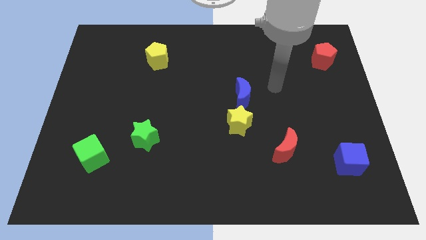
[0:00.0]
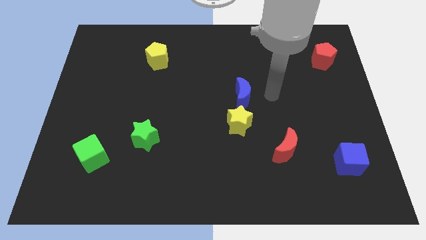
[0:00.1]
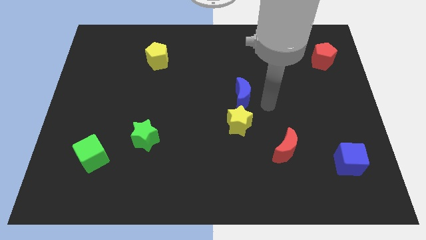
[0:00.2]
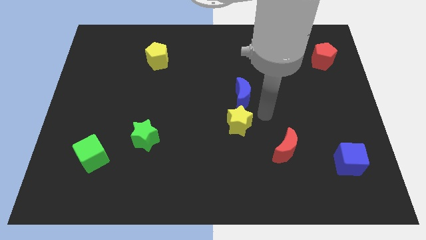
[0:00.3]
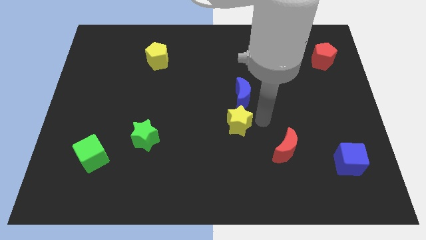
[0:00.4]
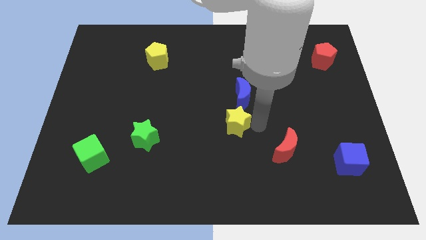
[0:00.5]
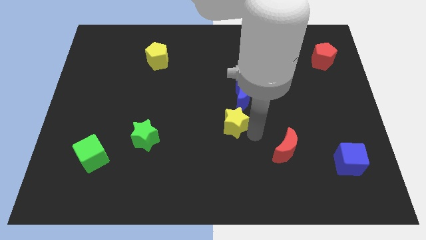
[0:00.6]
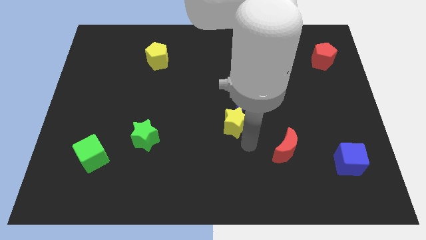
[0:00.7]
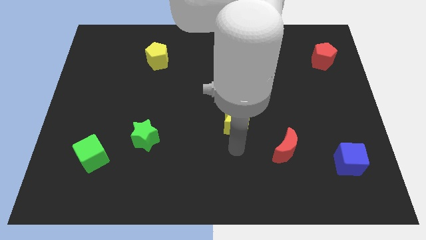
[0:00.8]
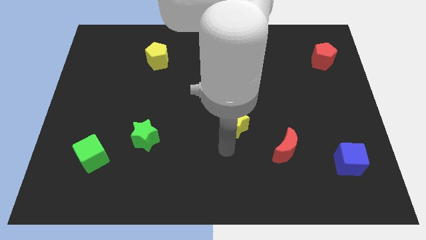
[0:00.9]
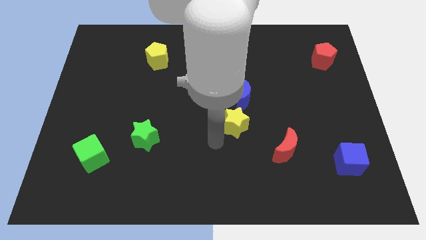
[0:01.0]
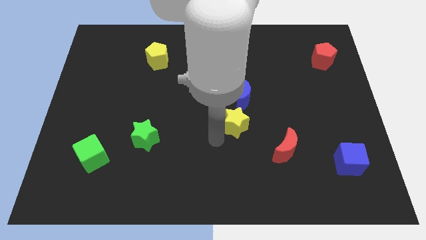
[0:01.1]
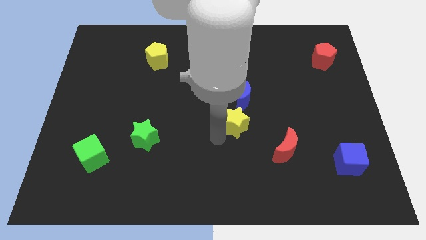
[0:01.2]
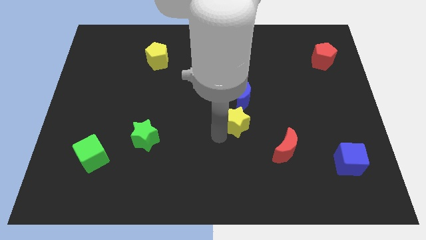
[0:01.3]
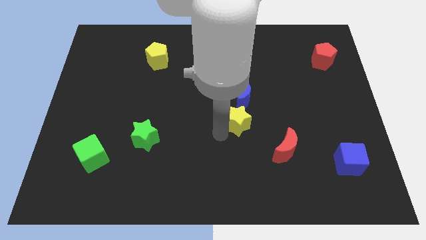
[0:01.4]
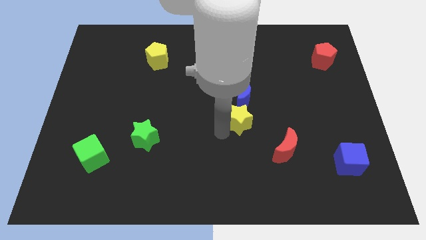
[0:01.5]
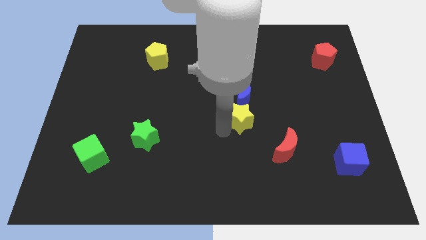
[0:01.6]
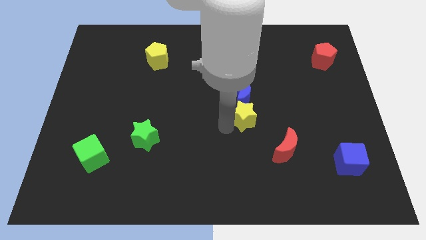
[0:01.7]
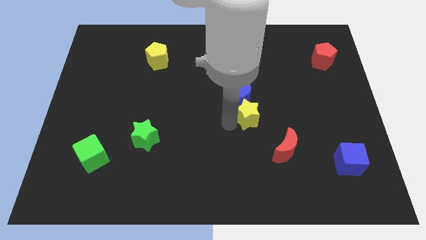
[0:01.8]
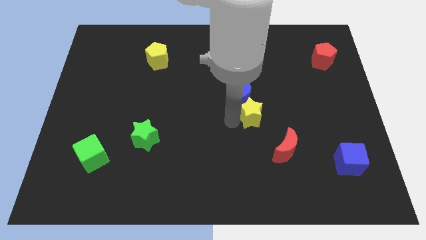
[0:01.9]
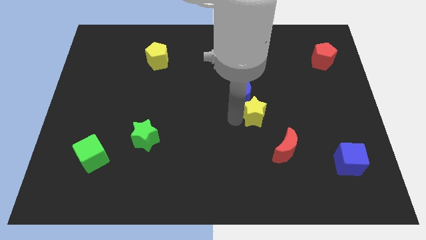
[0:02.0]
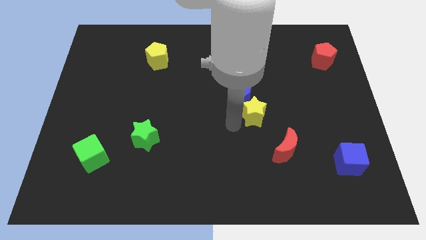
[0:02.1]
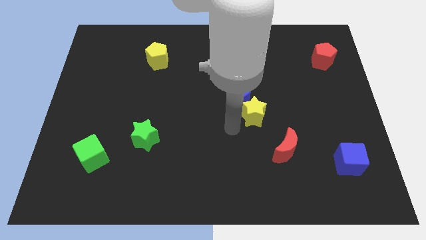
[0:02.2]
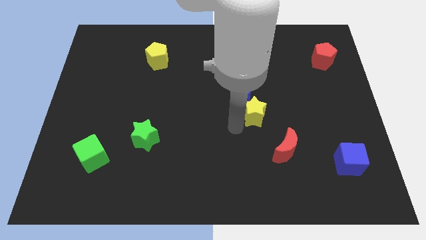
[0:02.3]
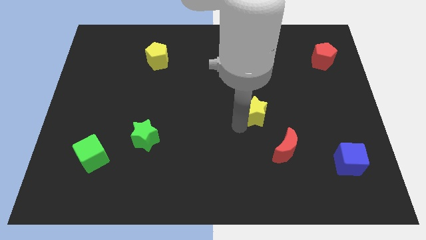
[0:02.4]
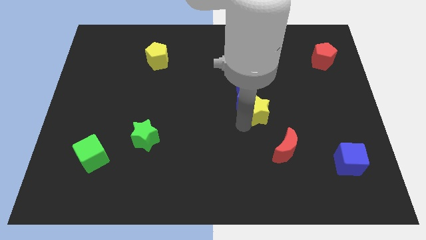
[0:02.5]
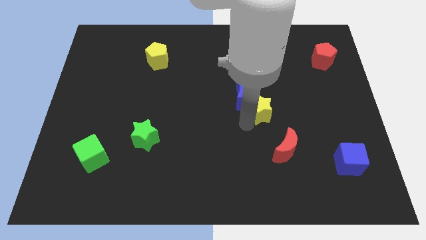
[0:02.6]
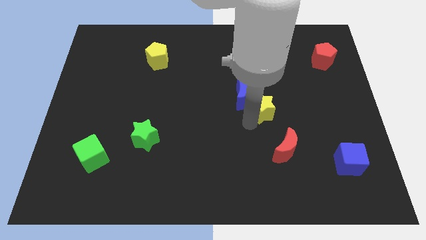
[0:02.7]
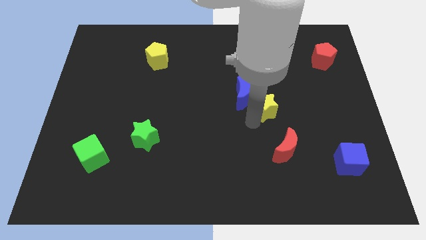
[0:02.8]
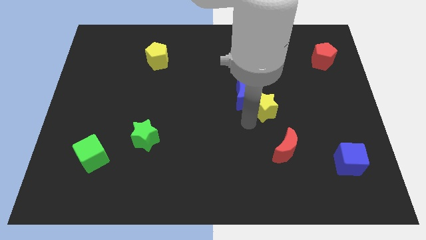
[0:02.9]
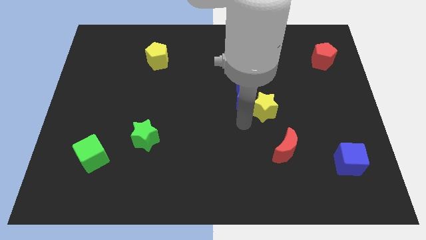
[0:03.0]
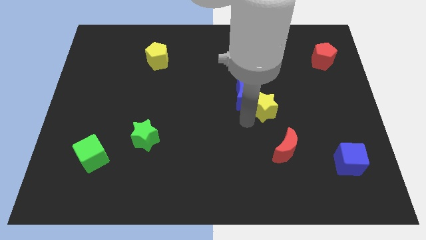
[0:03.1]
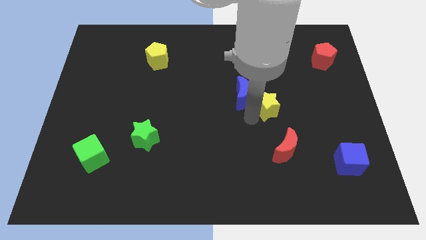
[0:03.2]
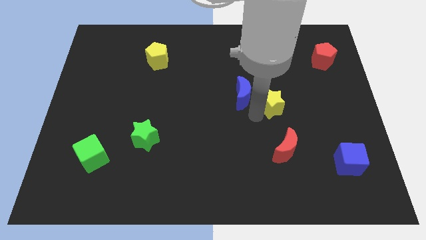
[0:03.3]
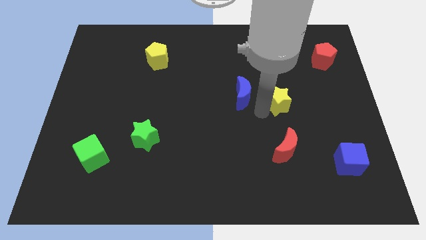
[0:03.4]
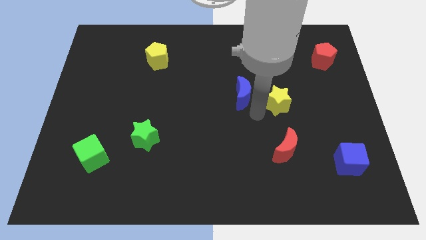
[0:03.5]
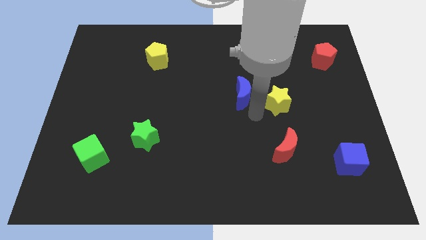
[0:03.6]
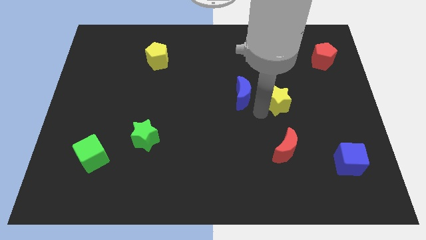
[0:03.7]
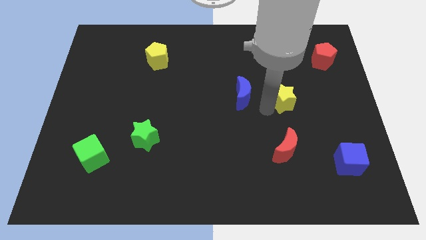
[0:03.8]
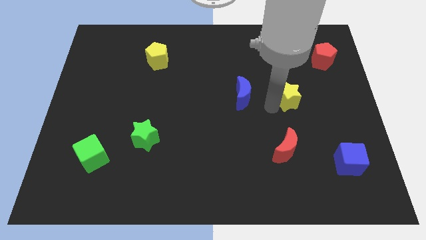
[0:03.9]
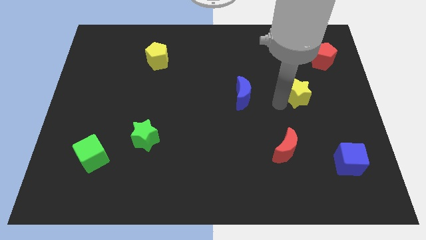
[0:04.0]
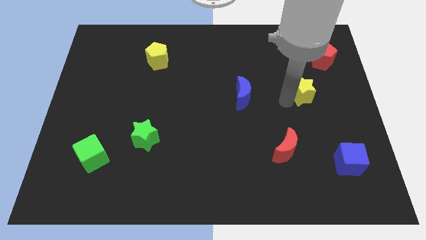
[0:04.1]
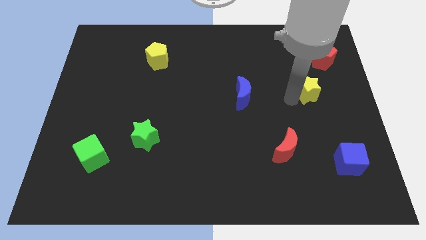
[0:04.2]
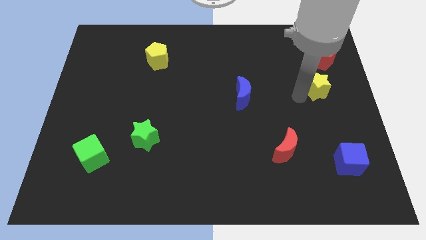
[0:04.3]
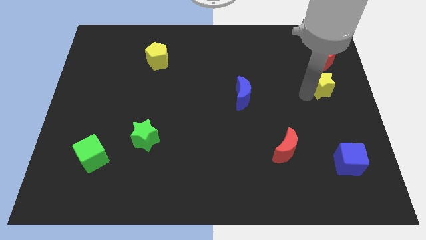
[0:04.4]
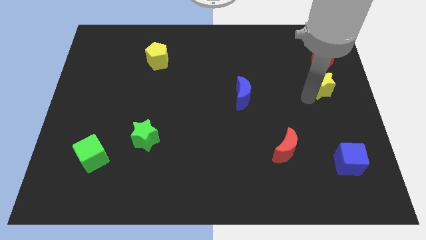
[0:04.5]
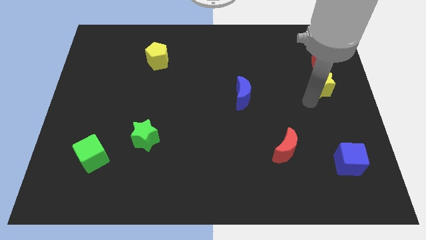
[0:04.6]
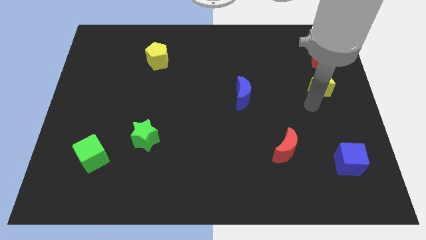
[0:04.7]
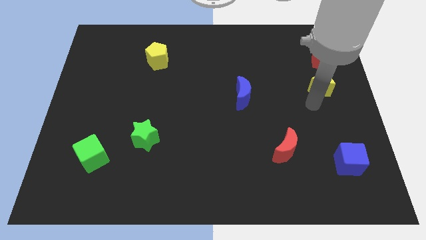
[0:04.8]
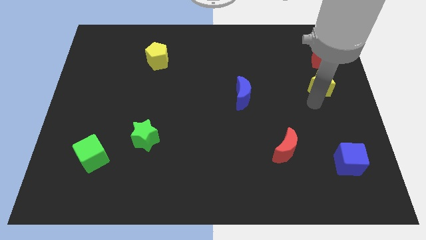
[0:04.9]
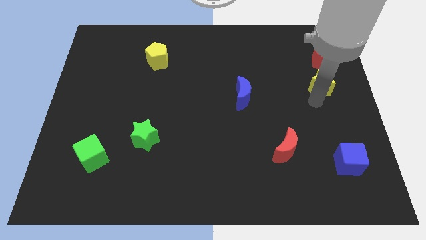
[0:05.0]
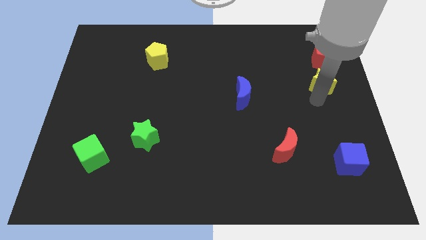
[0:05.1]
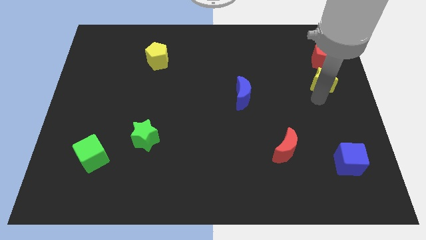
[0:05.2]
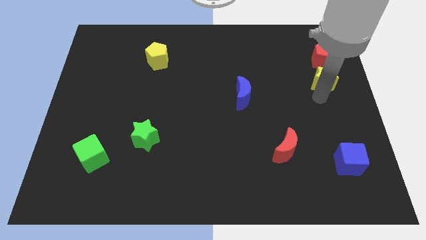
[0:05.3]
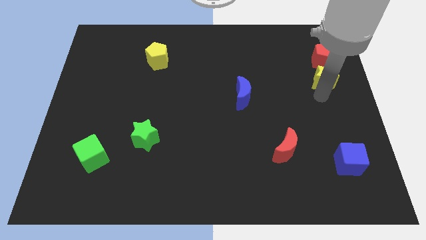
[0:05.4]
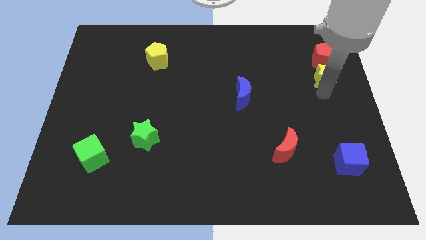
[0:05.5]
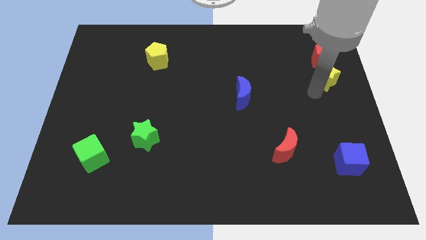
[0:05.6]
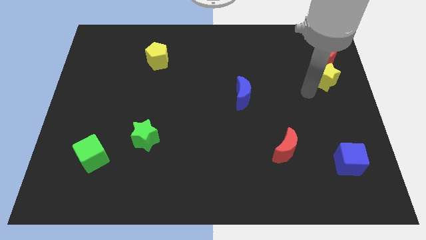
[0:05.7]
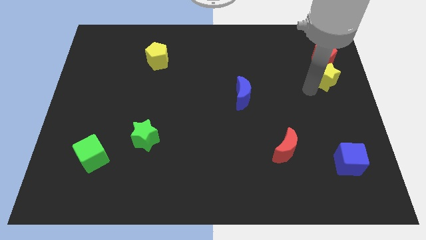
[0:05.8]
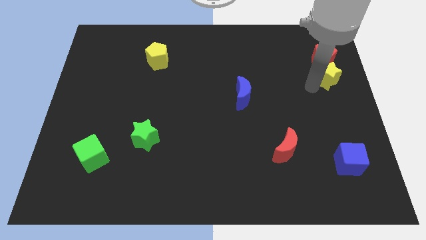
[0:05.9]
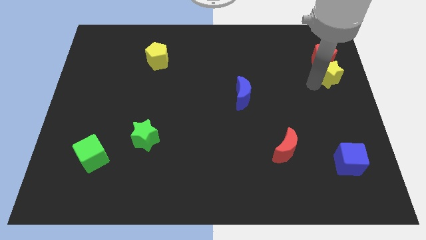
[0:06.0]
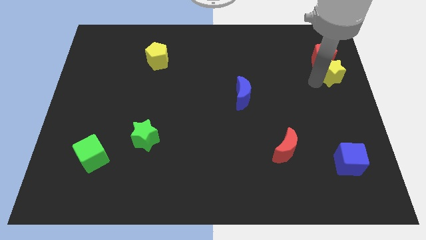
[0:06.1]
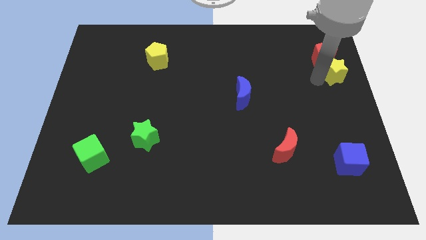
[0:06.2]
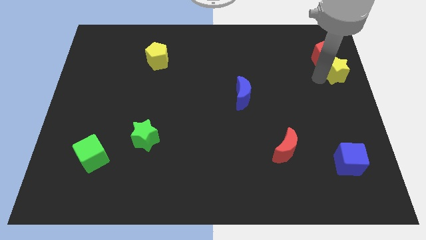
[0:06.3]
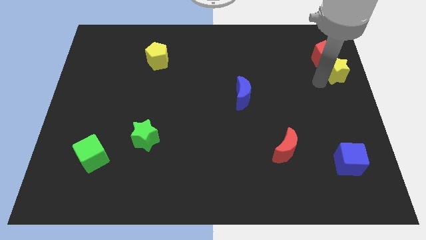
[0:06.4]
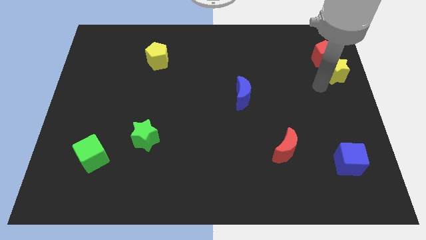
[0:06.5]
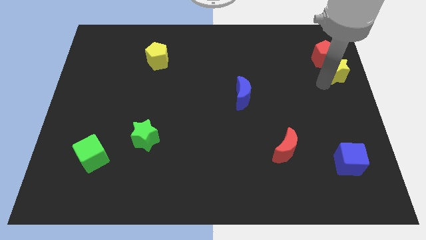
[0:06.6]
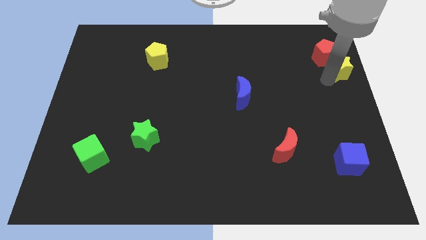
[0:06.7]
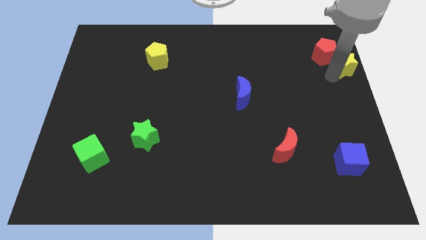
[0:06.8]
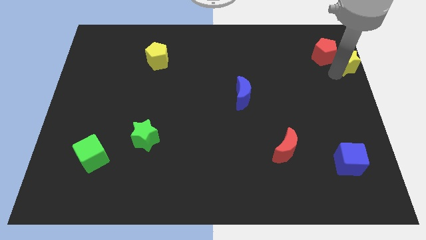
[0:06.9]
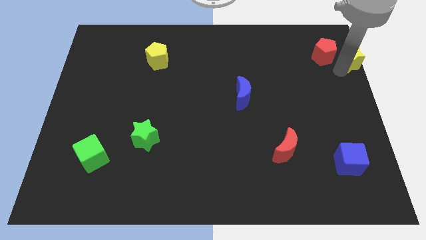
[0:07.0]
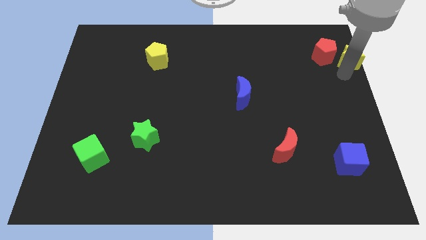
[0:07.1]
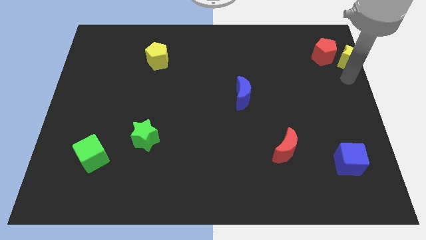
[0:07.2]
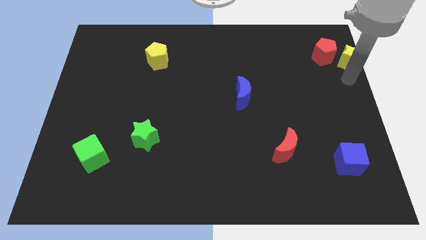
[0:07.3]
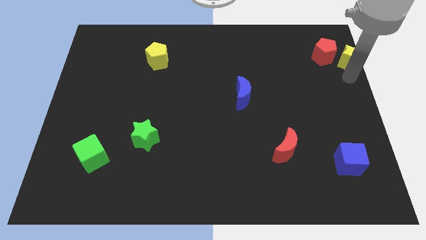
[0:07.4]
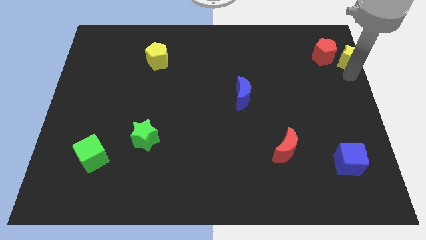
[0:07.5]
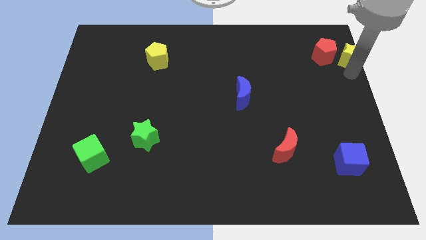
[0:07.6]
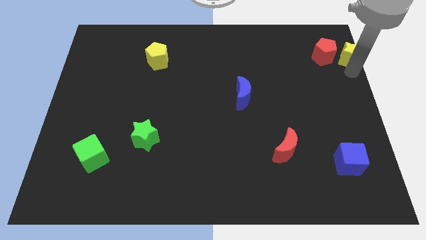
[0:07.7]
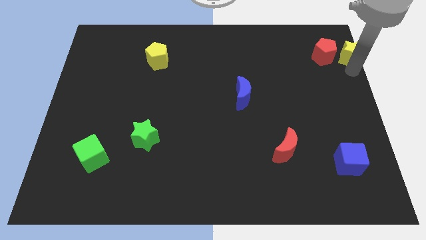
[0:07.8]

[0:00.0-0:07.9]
put the yellow star to the top right corner
